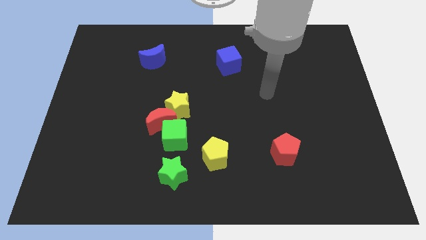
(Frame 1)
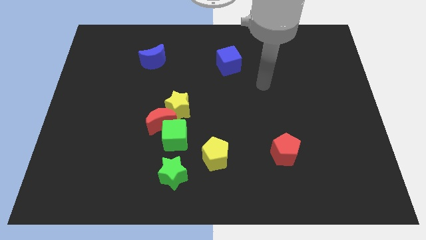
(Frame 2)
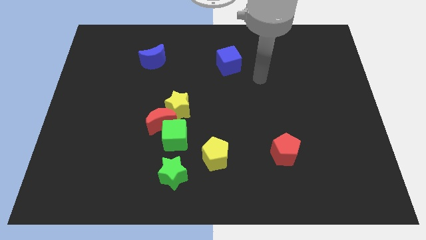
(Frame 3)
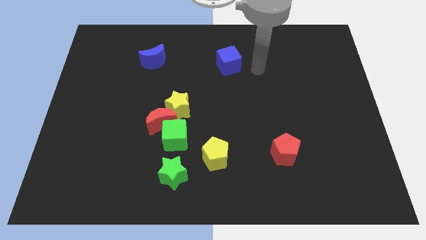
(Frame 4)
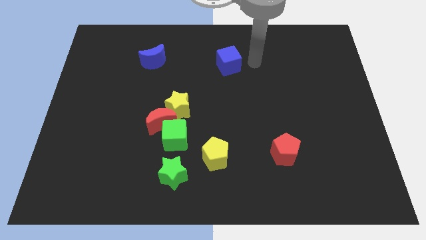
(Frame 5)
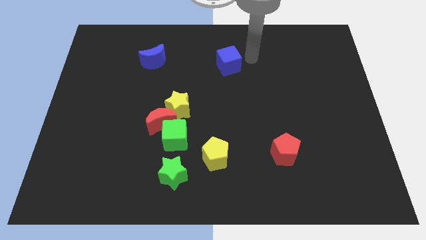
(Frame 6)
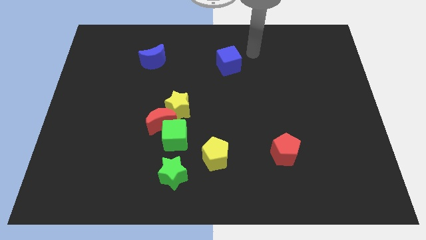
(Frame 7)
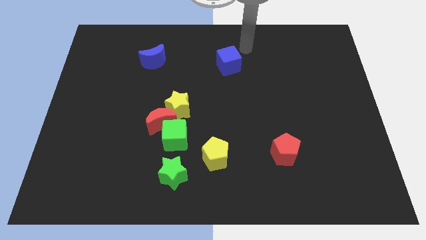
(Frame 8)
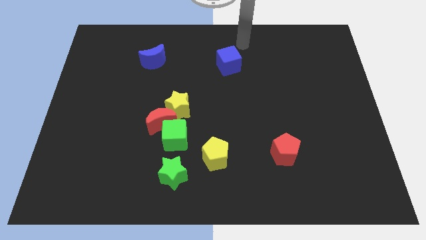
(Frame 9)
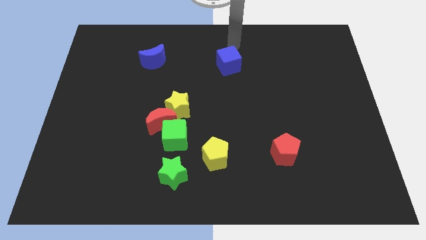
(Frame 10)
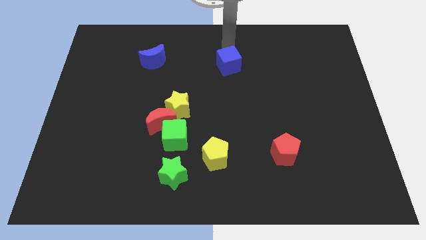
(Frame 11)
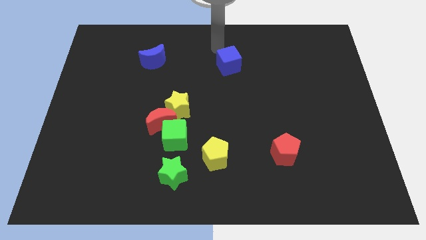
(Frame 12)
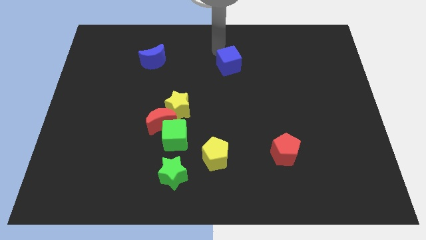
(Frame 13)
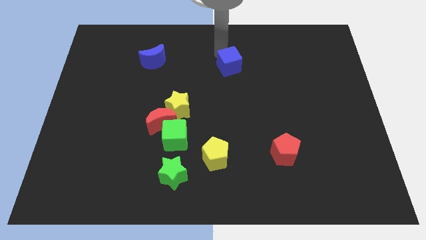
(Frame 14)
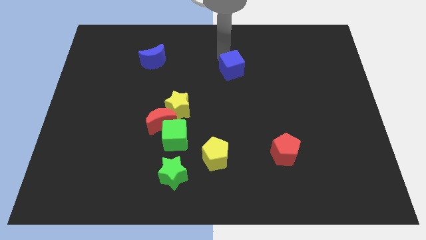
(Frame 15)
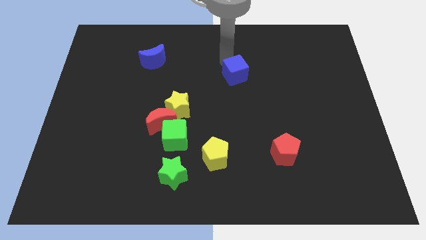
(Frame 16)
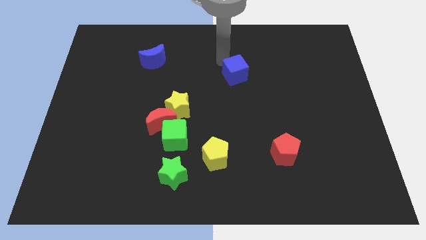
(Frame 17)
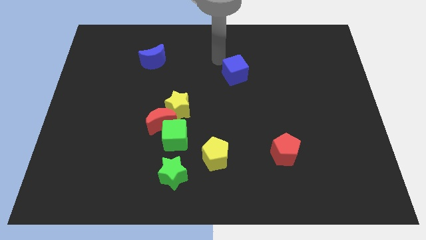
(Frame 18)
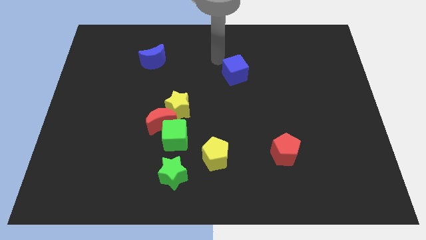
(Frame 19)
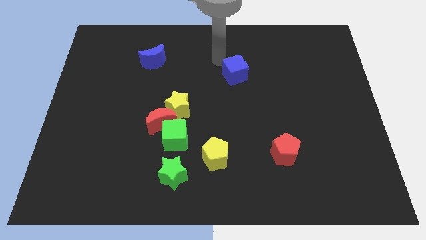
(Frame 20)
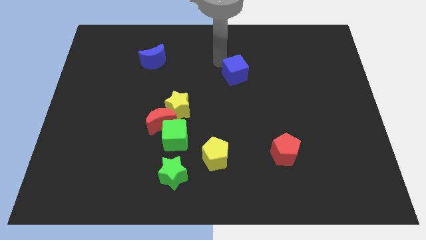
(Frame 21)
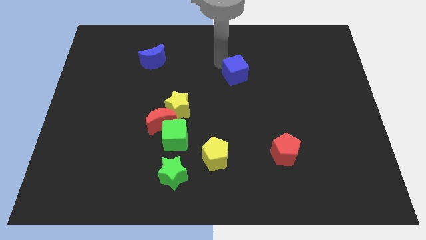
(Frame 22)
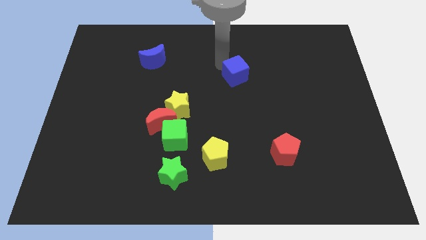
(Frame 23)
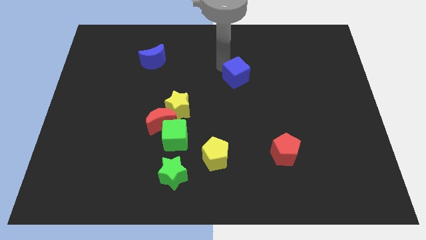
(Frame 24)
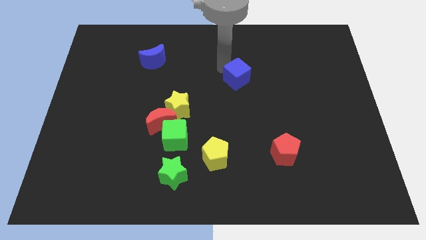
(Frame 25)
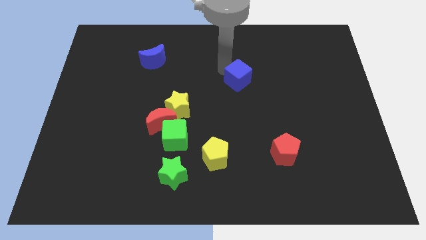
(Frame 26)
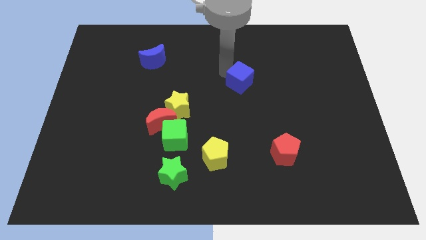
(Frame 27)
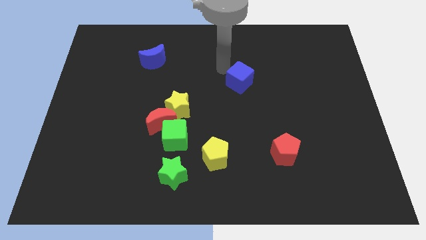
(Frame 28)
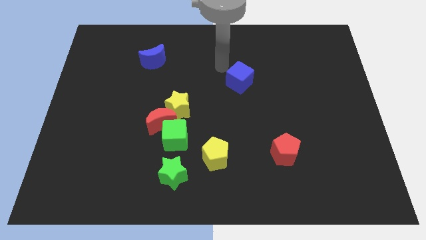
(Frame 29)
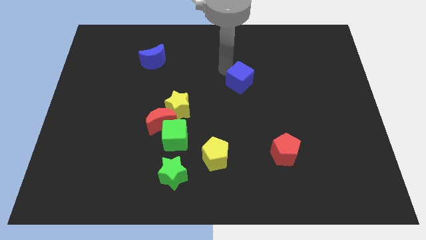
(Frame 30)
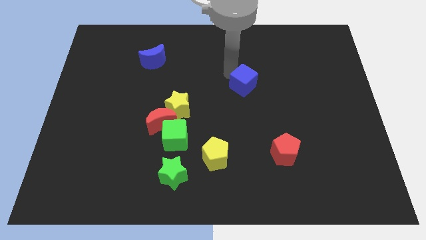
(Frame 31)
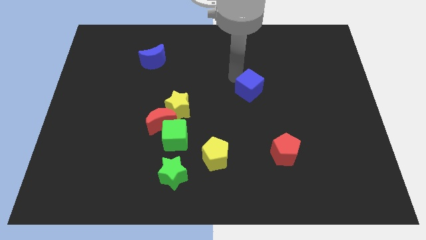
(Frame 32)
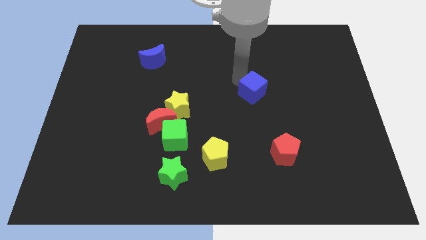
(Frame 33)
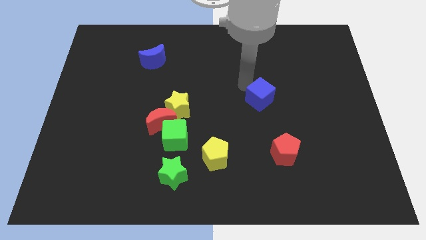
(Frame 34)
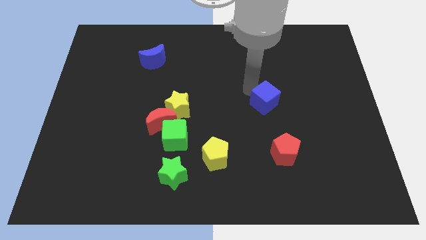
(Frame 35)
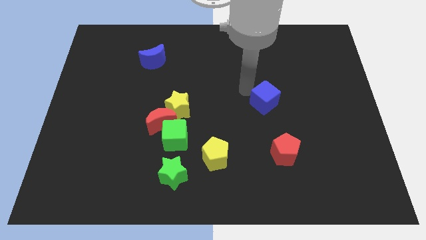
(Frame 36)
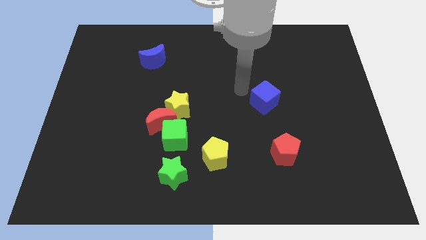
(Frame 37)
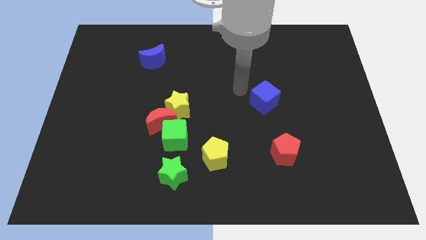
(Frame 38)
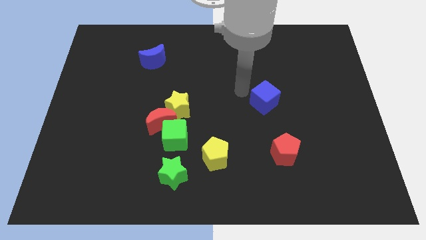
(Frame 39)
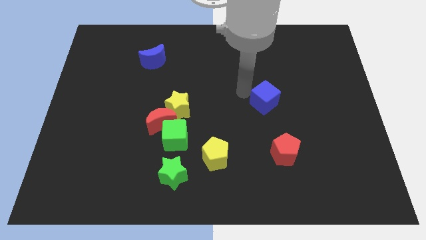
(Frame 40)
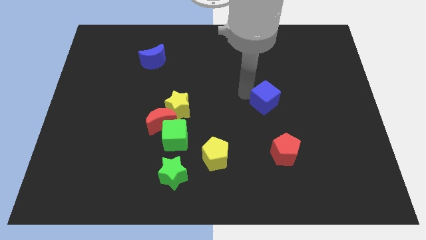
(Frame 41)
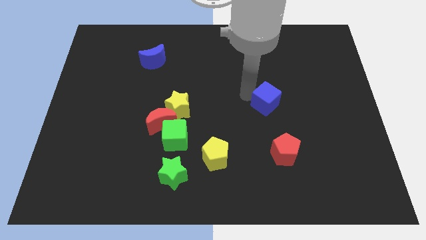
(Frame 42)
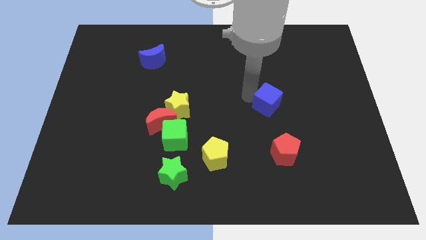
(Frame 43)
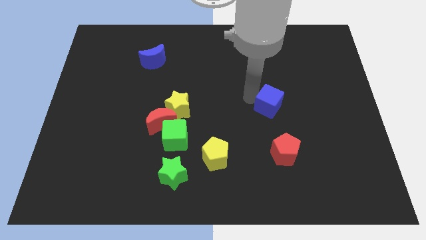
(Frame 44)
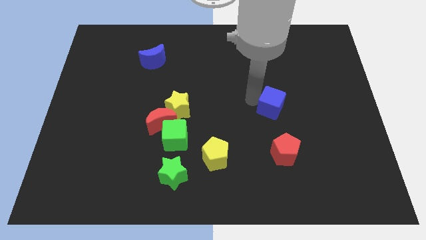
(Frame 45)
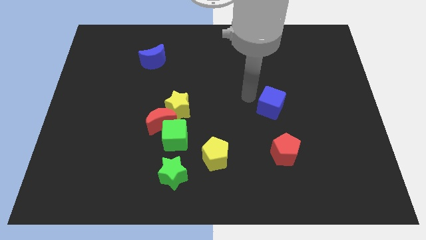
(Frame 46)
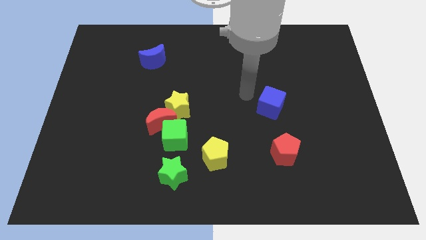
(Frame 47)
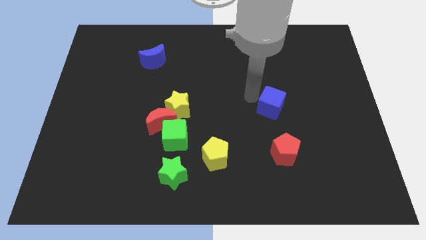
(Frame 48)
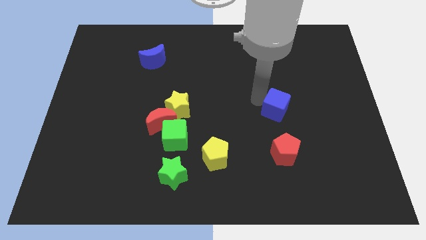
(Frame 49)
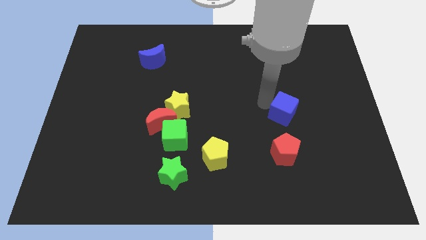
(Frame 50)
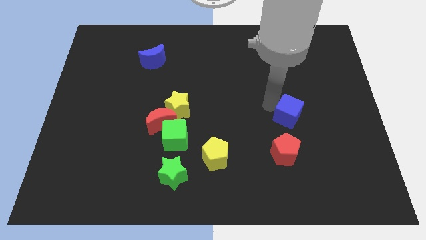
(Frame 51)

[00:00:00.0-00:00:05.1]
push the blue cube down and then right

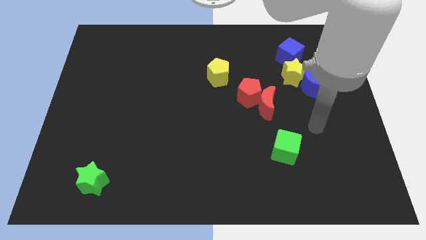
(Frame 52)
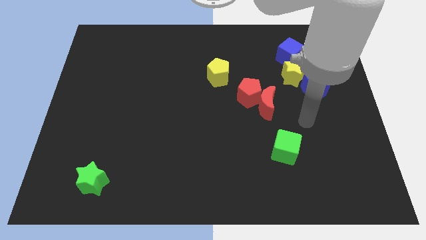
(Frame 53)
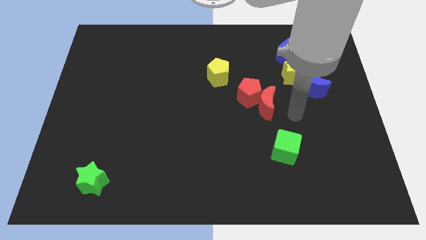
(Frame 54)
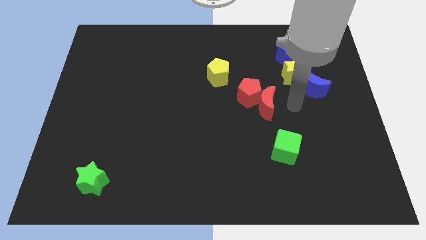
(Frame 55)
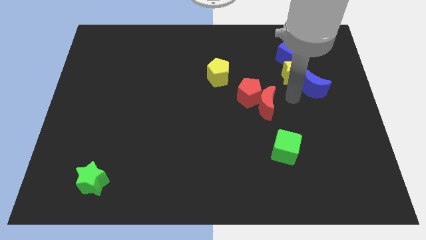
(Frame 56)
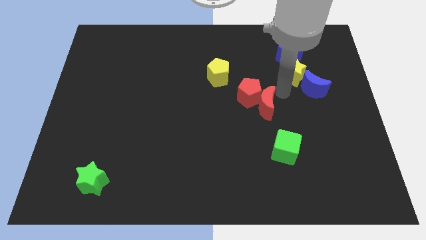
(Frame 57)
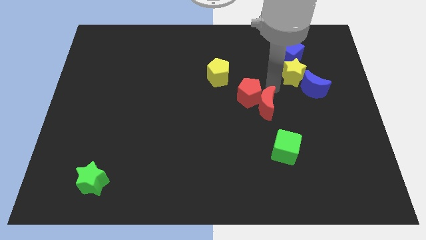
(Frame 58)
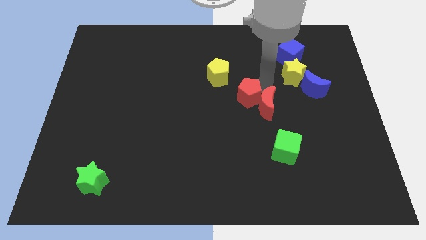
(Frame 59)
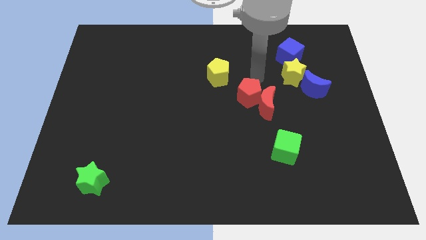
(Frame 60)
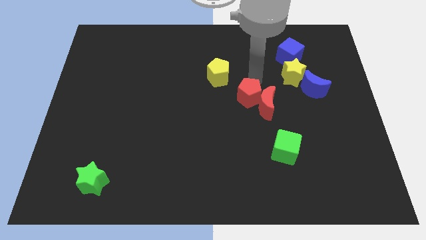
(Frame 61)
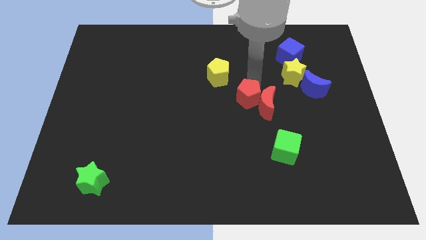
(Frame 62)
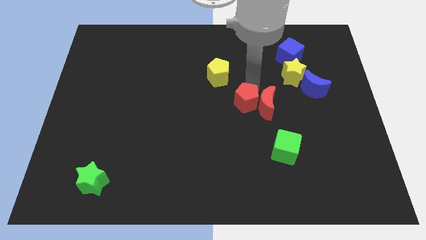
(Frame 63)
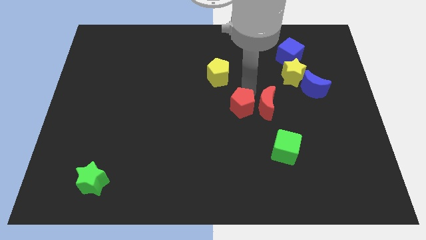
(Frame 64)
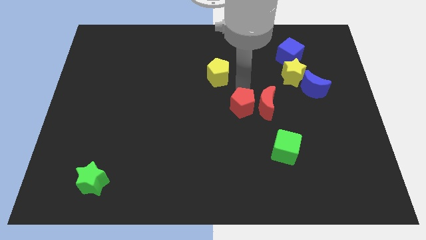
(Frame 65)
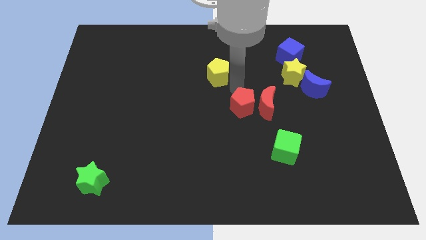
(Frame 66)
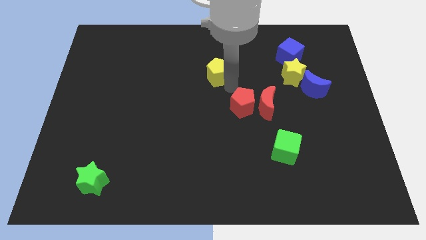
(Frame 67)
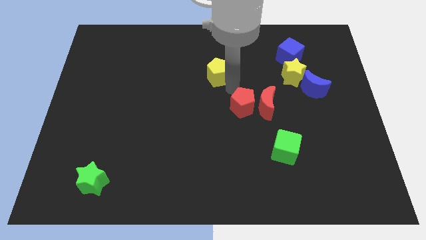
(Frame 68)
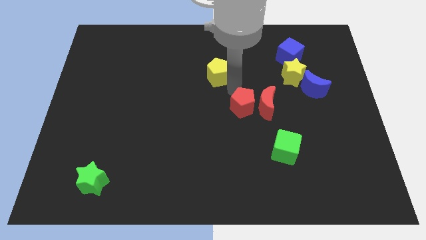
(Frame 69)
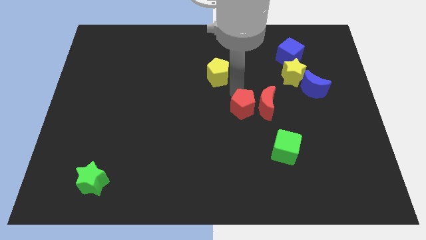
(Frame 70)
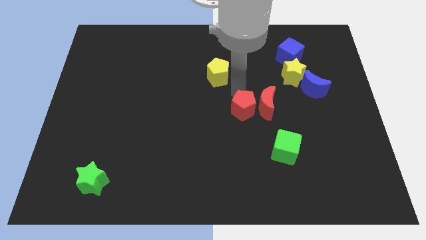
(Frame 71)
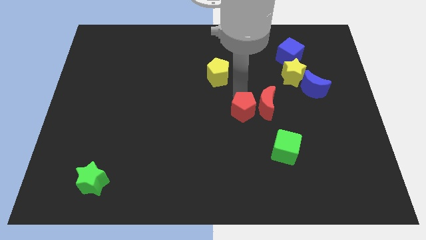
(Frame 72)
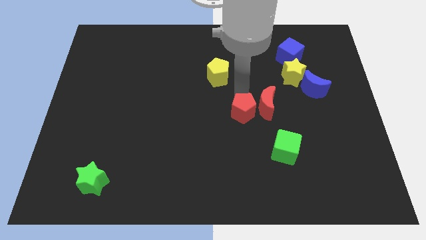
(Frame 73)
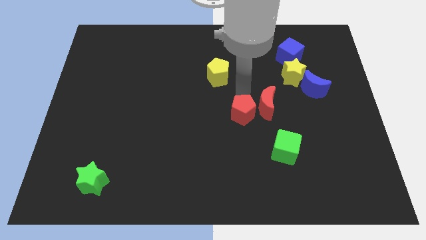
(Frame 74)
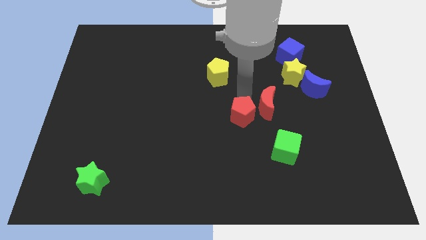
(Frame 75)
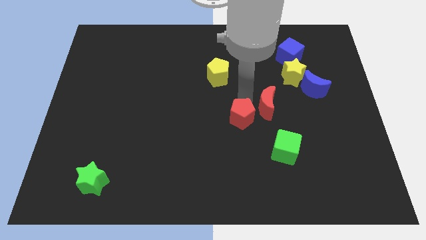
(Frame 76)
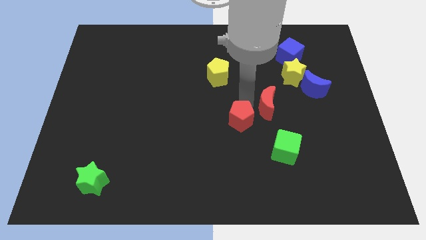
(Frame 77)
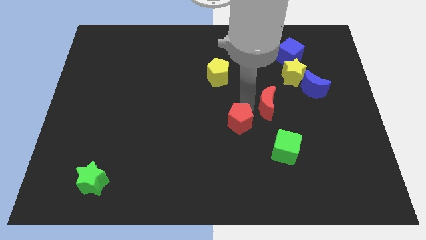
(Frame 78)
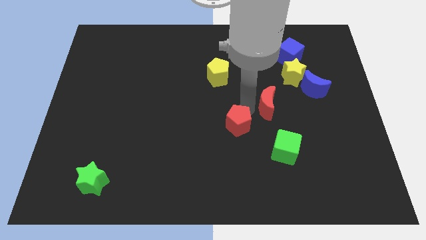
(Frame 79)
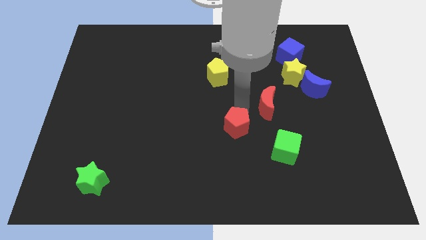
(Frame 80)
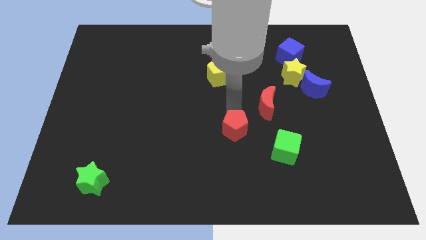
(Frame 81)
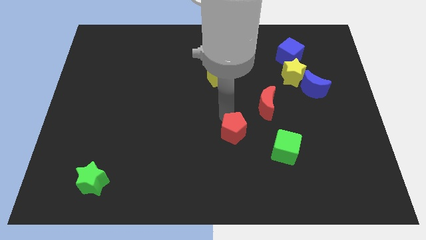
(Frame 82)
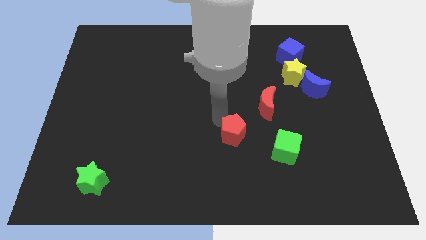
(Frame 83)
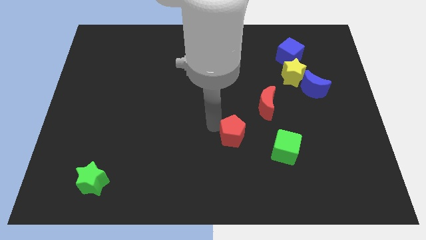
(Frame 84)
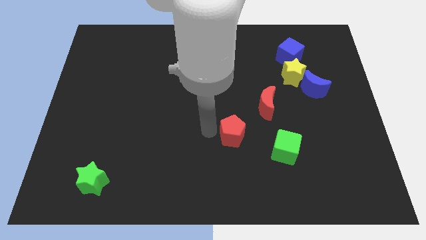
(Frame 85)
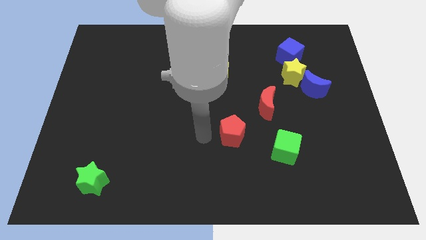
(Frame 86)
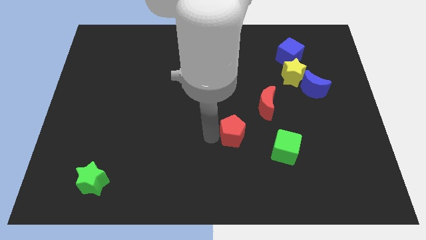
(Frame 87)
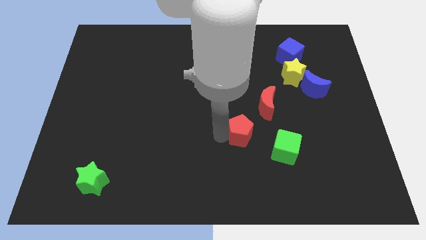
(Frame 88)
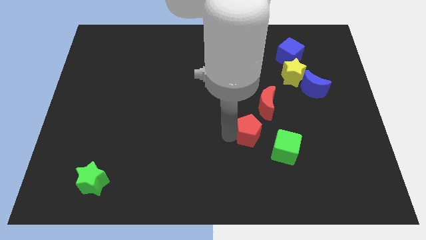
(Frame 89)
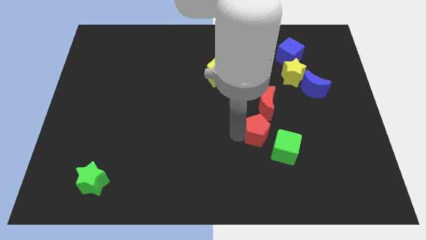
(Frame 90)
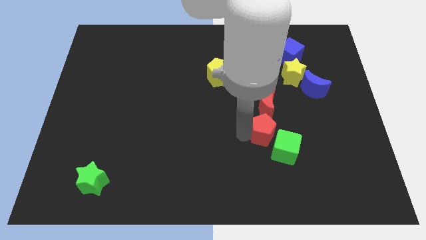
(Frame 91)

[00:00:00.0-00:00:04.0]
slightly move the red pentagon downwards and then right
